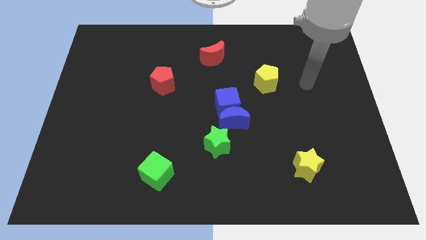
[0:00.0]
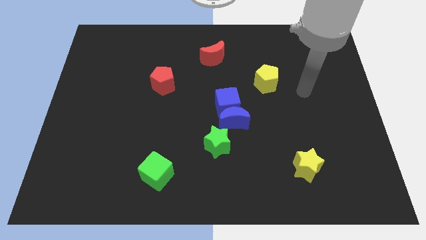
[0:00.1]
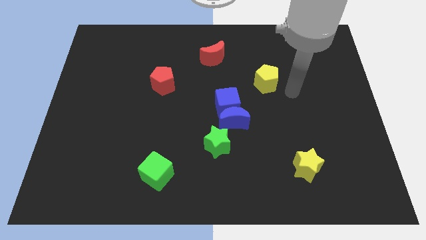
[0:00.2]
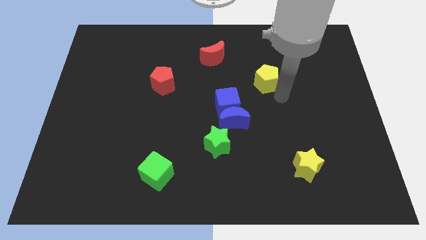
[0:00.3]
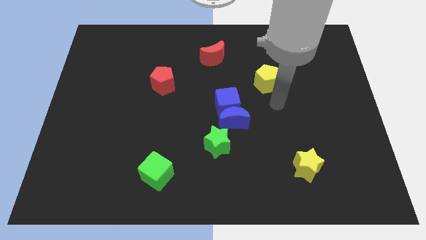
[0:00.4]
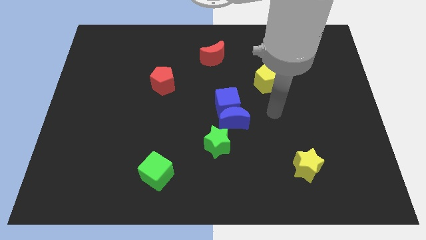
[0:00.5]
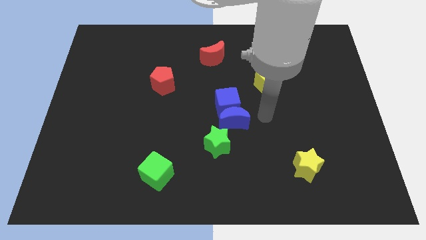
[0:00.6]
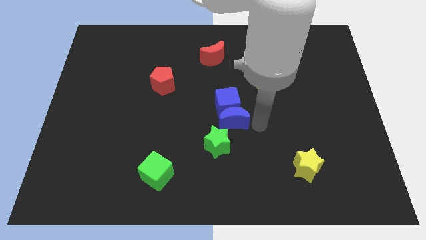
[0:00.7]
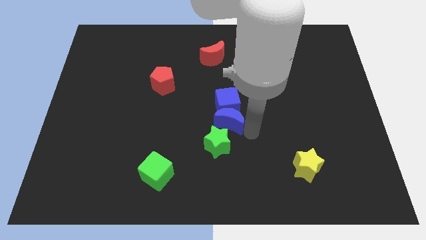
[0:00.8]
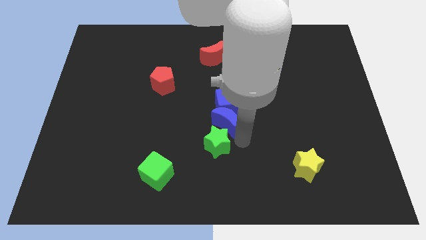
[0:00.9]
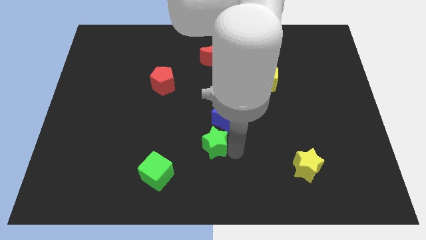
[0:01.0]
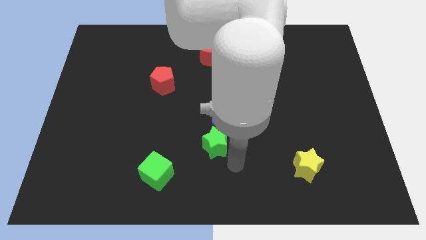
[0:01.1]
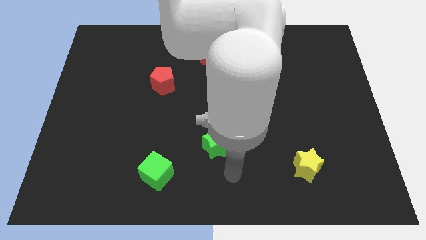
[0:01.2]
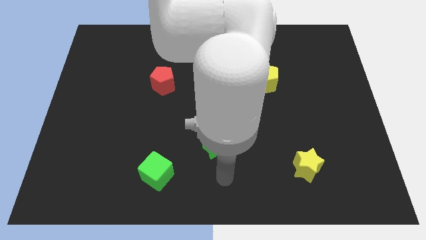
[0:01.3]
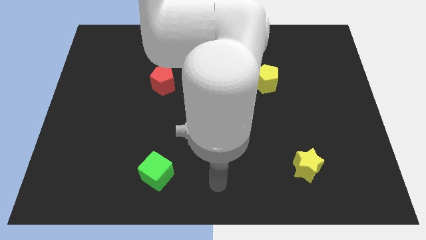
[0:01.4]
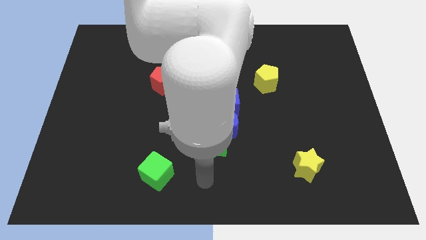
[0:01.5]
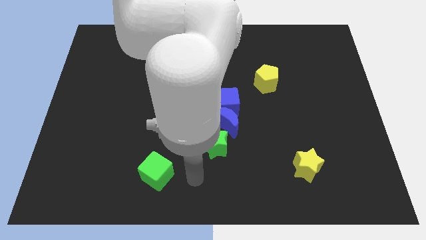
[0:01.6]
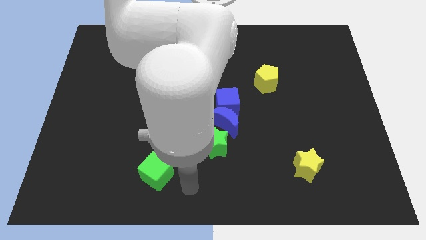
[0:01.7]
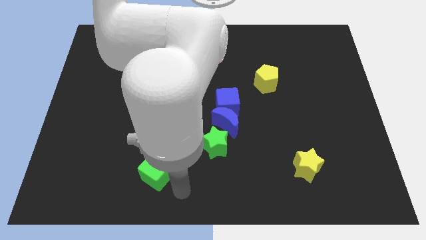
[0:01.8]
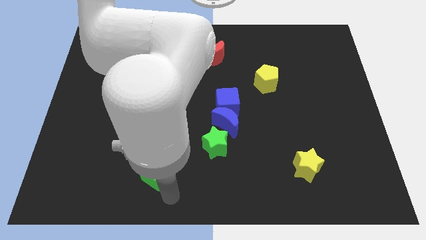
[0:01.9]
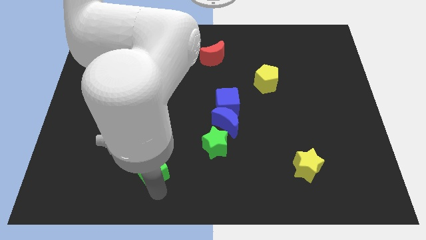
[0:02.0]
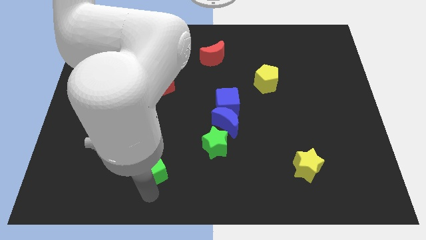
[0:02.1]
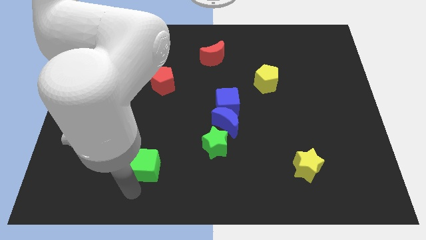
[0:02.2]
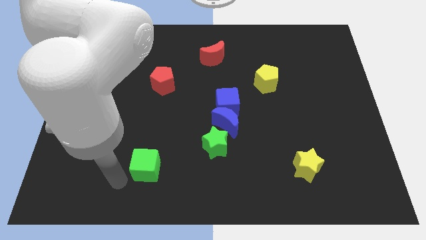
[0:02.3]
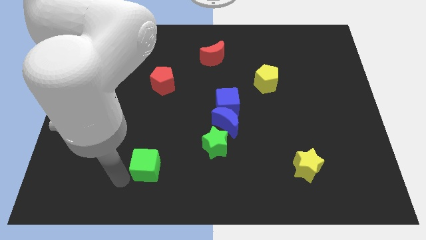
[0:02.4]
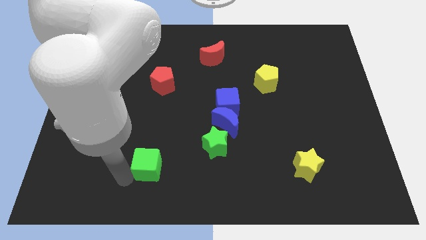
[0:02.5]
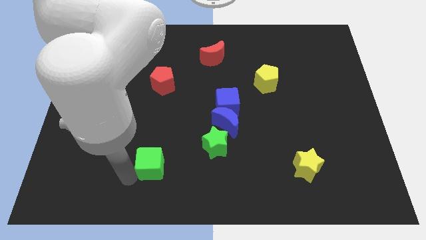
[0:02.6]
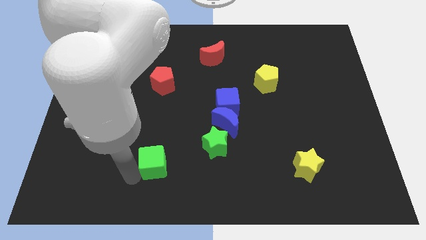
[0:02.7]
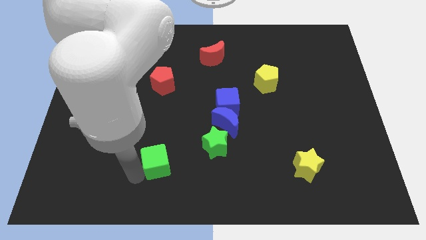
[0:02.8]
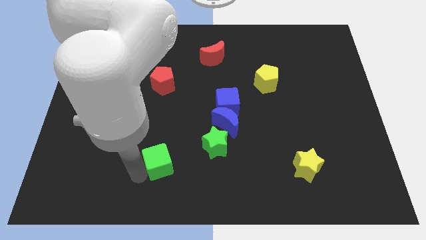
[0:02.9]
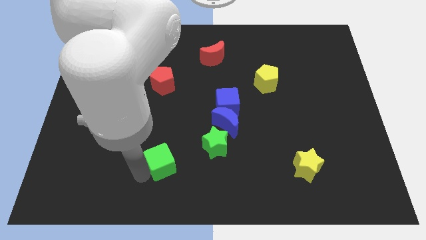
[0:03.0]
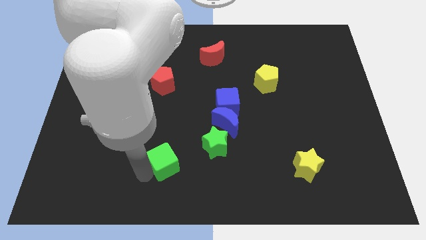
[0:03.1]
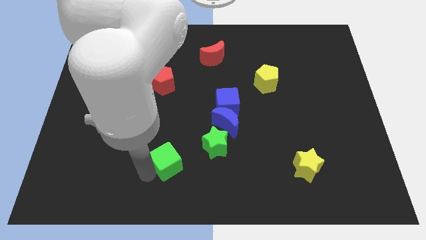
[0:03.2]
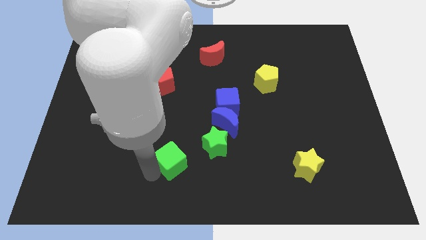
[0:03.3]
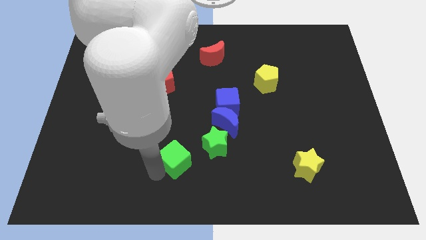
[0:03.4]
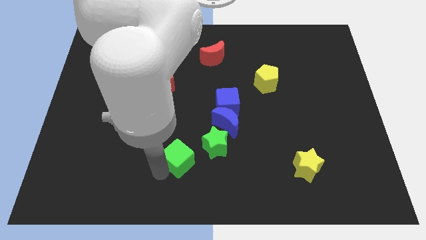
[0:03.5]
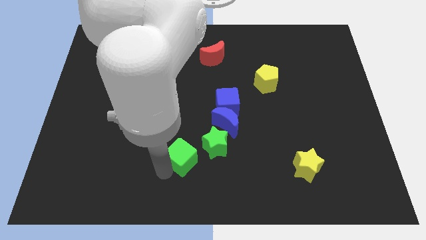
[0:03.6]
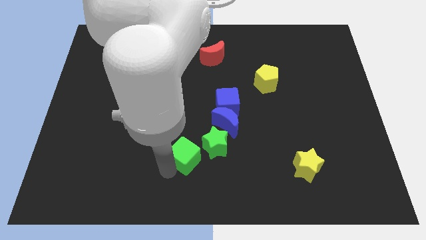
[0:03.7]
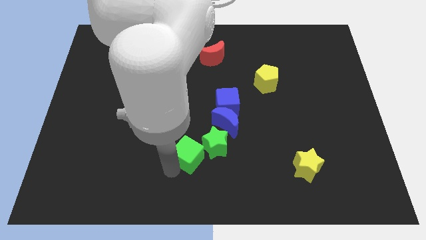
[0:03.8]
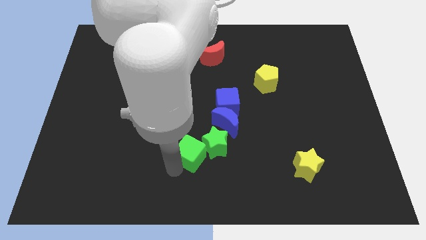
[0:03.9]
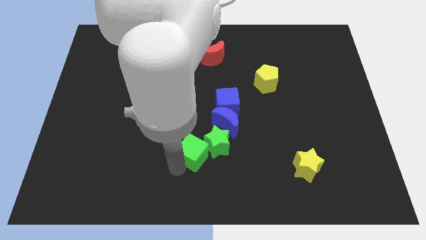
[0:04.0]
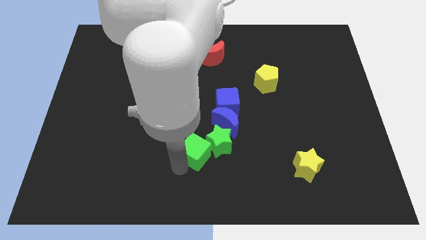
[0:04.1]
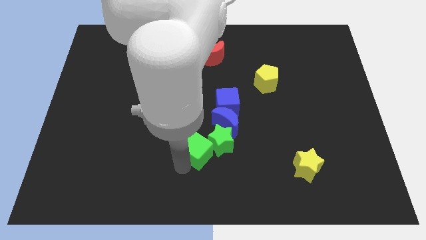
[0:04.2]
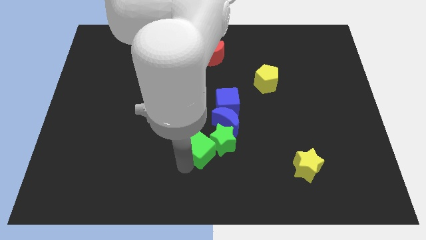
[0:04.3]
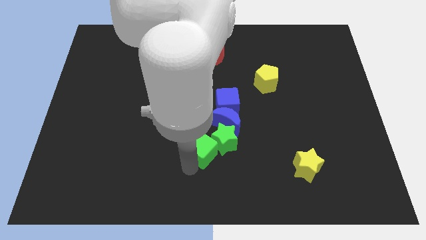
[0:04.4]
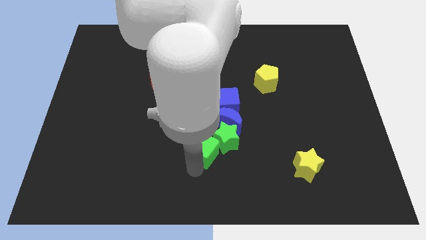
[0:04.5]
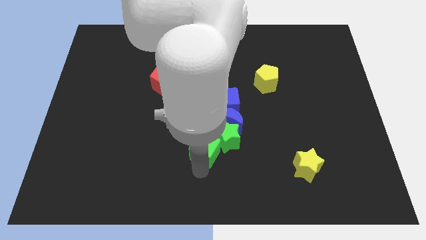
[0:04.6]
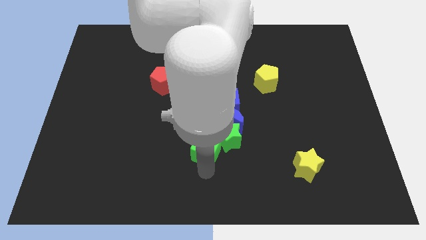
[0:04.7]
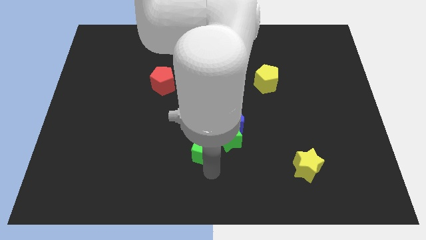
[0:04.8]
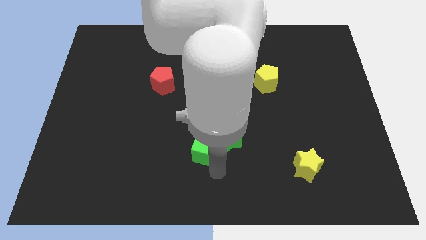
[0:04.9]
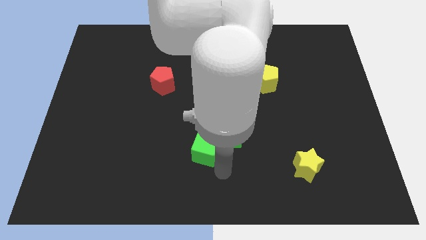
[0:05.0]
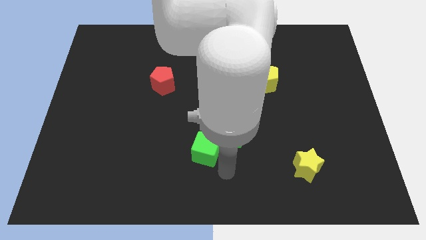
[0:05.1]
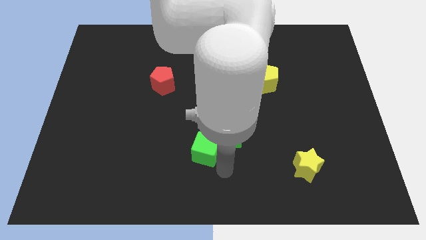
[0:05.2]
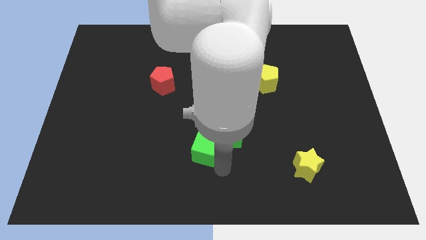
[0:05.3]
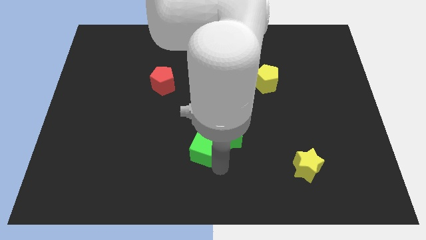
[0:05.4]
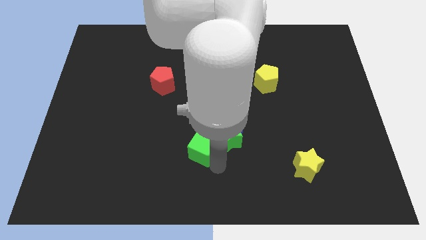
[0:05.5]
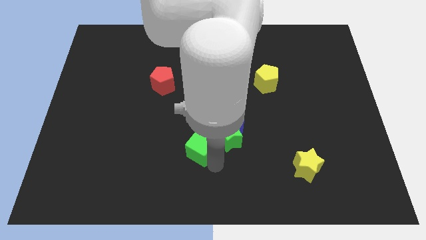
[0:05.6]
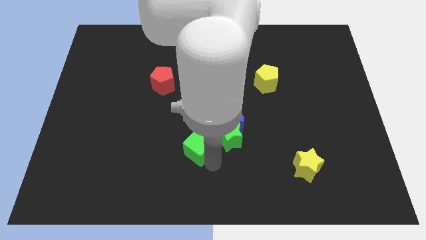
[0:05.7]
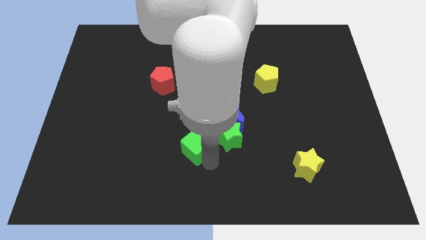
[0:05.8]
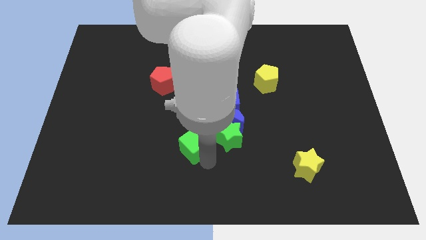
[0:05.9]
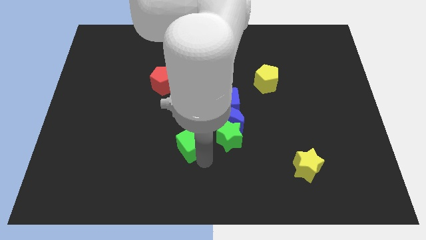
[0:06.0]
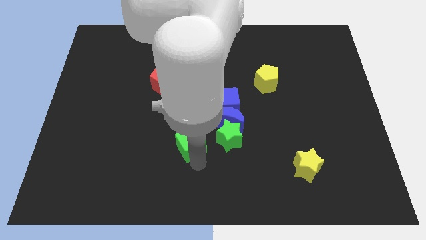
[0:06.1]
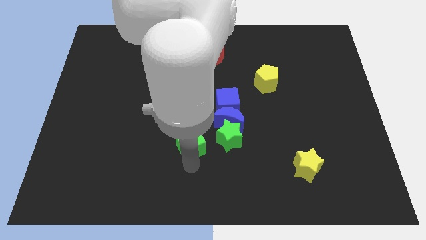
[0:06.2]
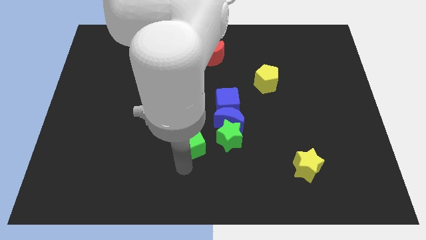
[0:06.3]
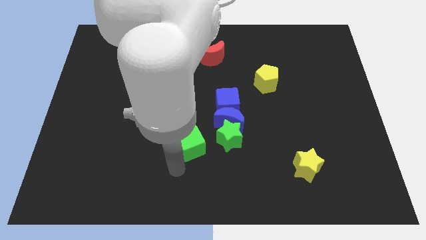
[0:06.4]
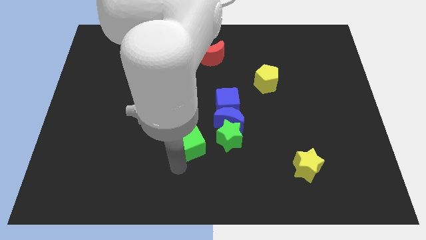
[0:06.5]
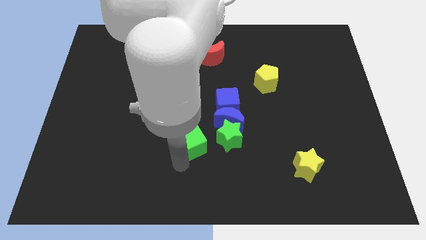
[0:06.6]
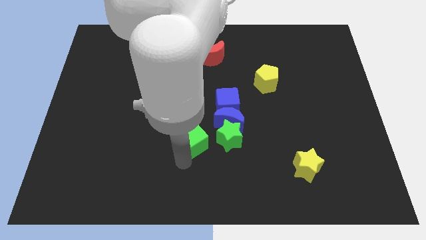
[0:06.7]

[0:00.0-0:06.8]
push the green cube diagonally down and to the left of the blue cube
